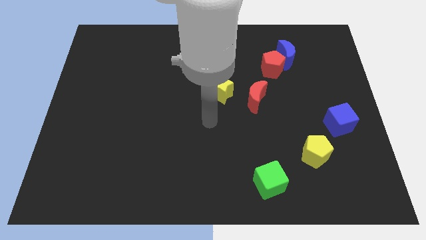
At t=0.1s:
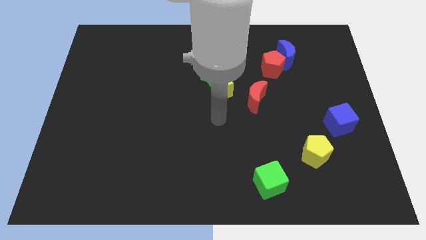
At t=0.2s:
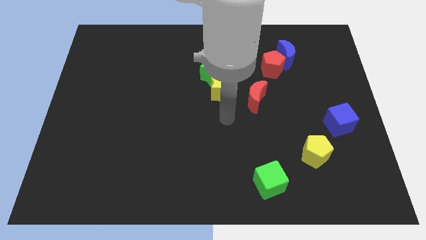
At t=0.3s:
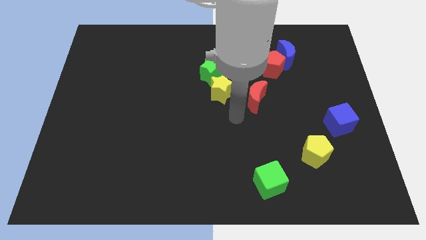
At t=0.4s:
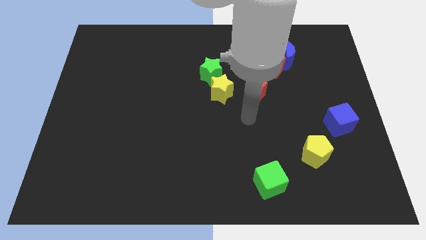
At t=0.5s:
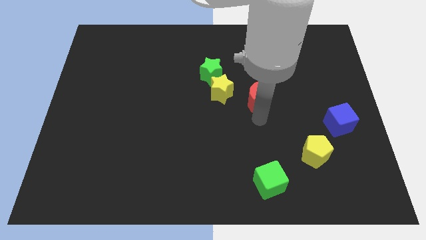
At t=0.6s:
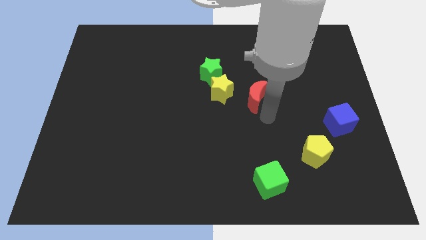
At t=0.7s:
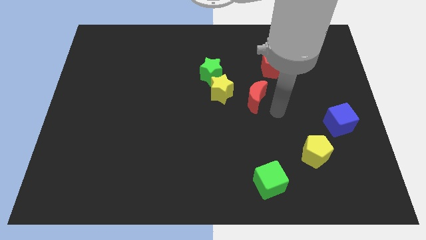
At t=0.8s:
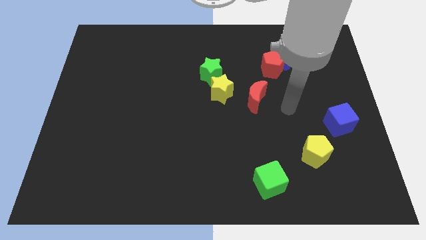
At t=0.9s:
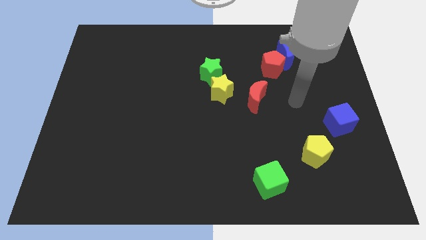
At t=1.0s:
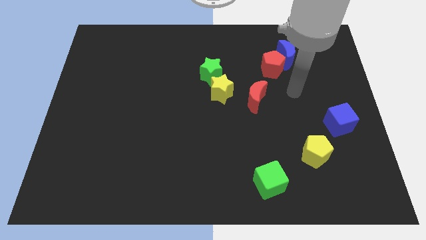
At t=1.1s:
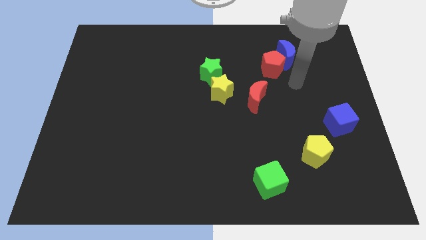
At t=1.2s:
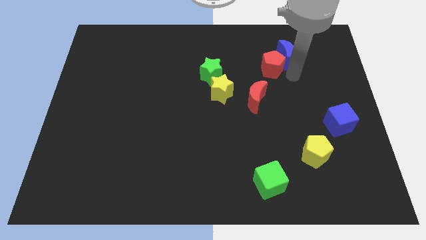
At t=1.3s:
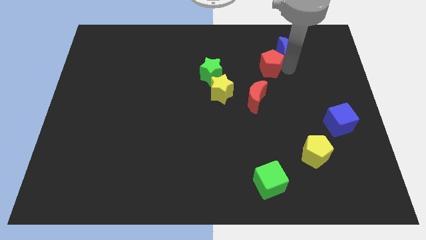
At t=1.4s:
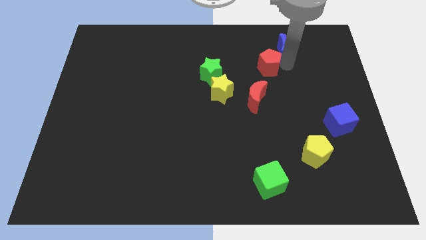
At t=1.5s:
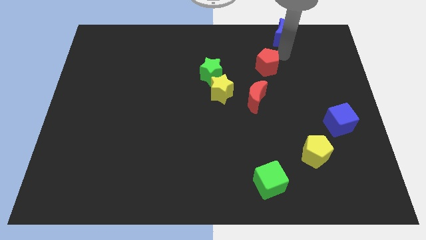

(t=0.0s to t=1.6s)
move the red pentagon away from the blue moon

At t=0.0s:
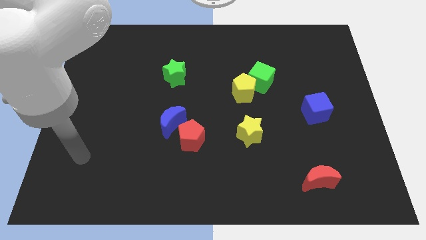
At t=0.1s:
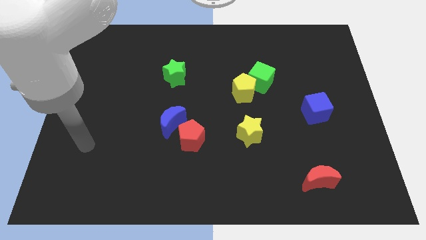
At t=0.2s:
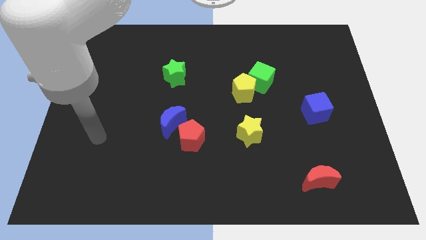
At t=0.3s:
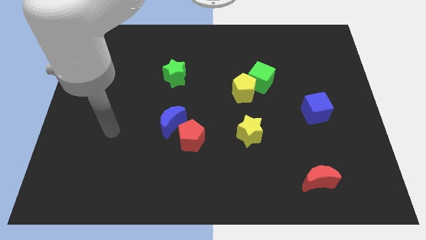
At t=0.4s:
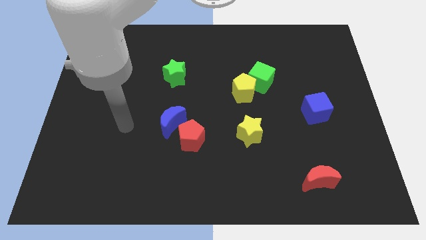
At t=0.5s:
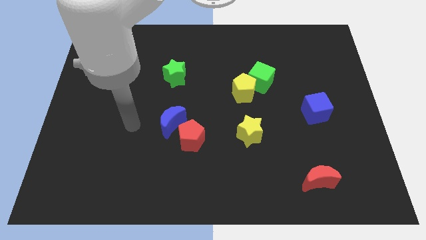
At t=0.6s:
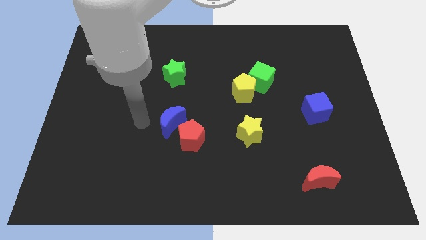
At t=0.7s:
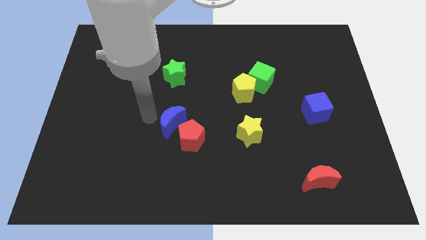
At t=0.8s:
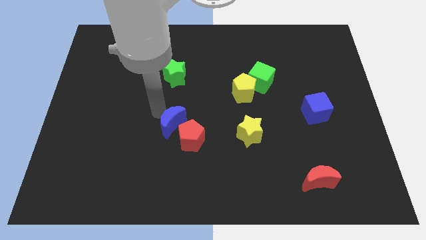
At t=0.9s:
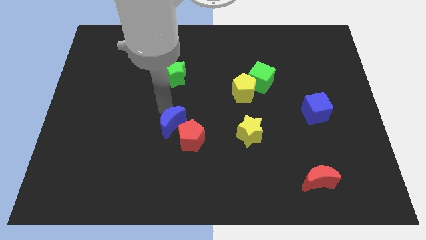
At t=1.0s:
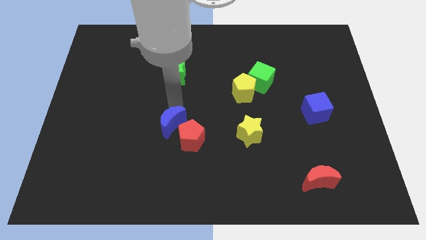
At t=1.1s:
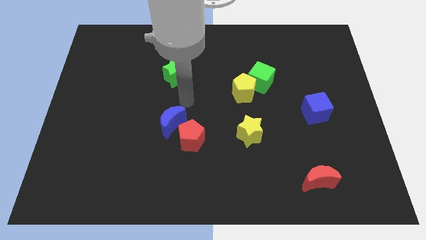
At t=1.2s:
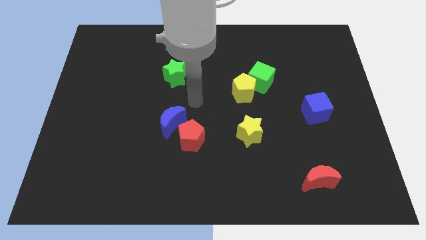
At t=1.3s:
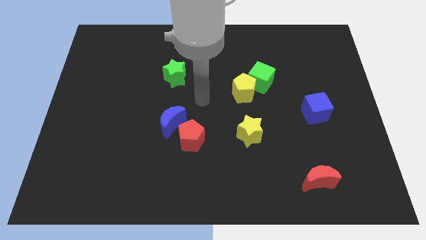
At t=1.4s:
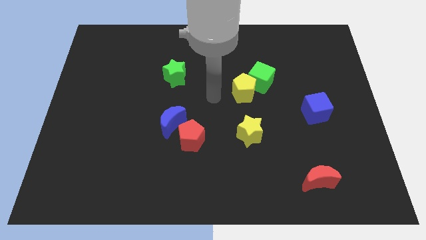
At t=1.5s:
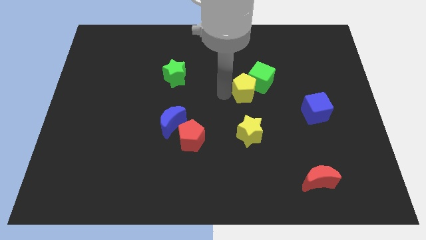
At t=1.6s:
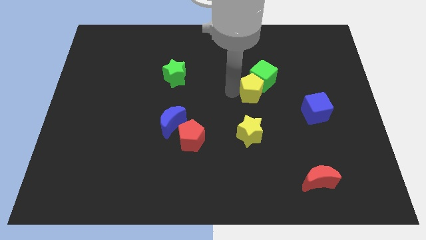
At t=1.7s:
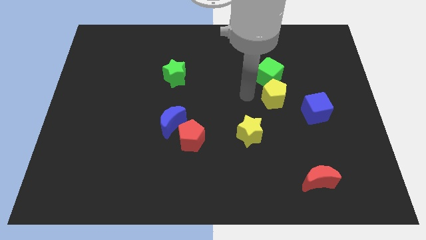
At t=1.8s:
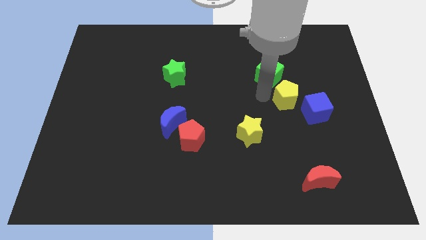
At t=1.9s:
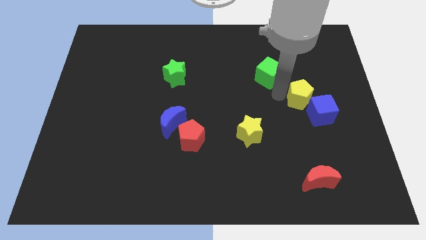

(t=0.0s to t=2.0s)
move the green cube away from the yellow pentagon

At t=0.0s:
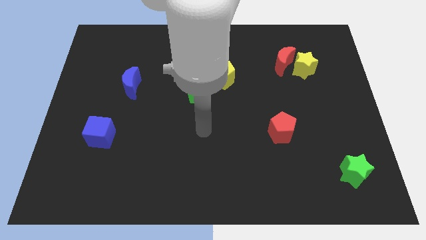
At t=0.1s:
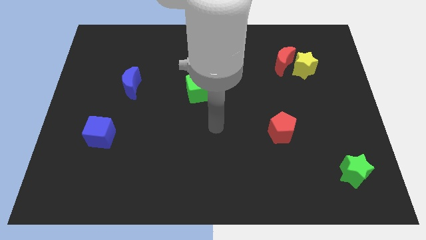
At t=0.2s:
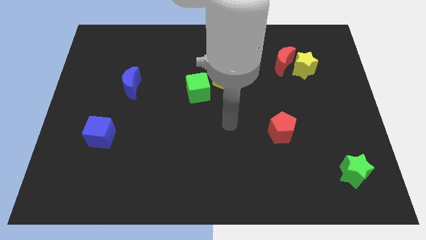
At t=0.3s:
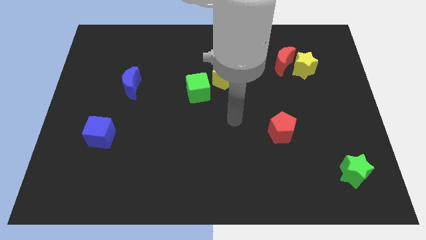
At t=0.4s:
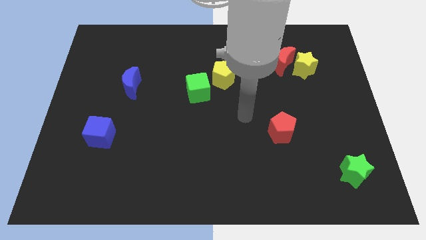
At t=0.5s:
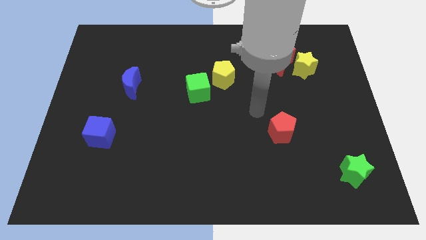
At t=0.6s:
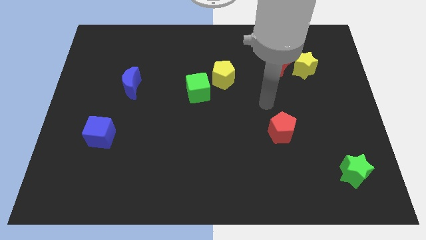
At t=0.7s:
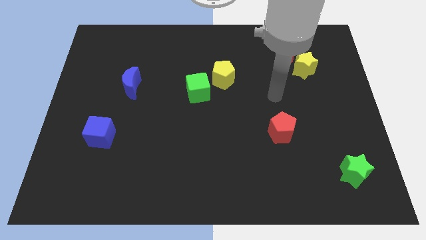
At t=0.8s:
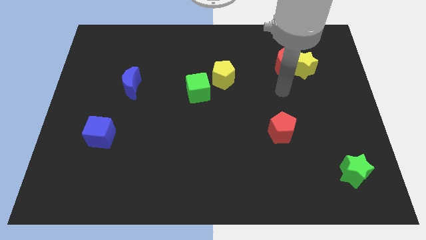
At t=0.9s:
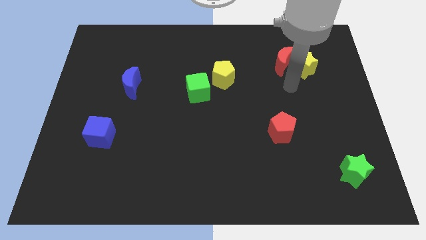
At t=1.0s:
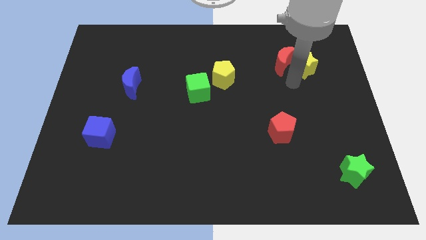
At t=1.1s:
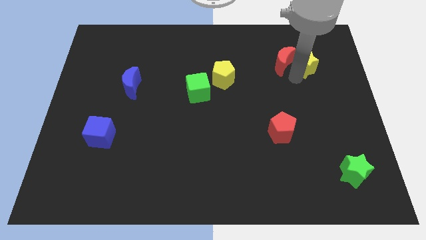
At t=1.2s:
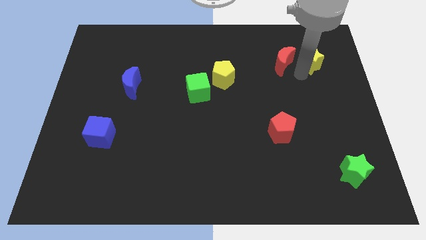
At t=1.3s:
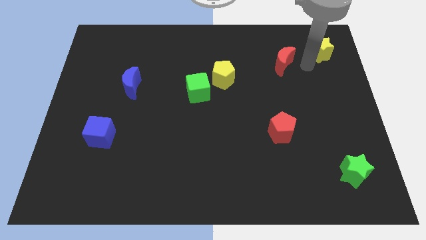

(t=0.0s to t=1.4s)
move the red moon away from the yellow star

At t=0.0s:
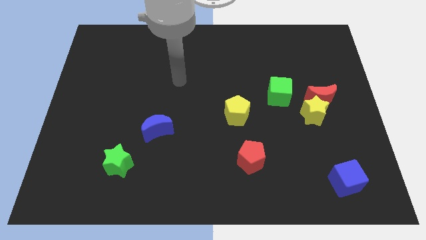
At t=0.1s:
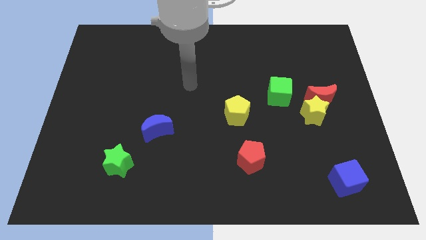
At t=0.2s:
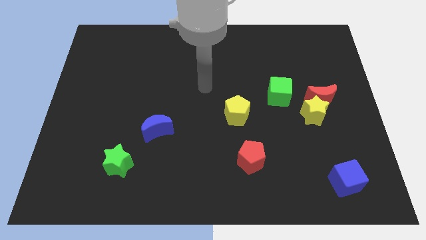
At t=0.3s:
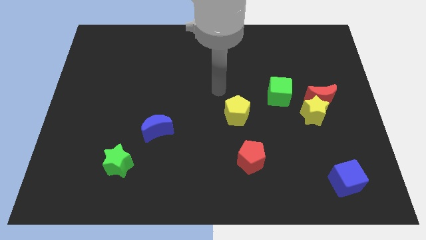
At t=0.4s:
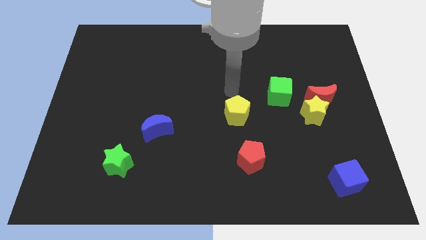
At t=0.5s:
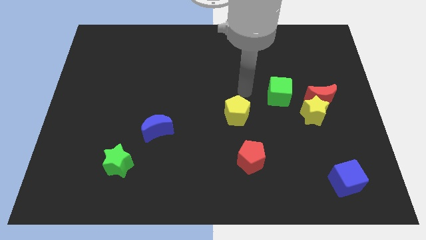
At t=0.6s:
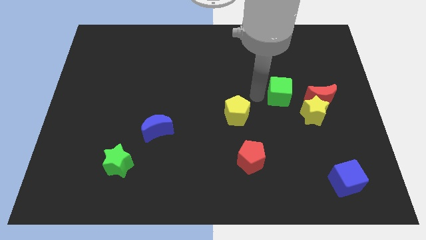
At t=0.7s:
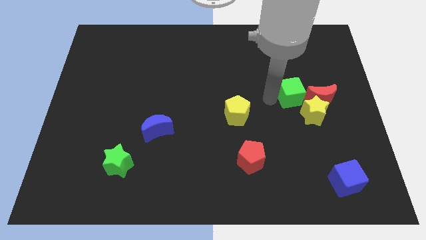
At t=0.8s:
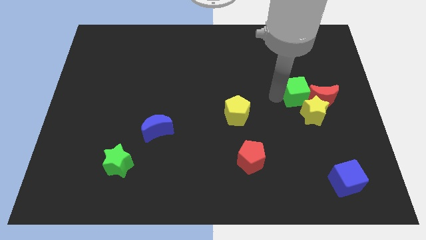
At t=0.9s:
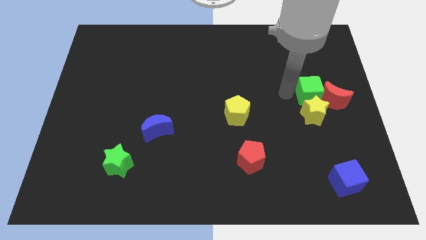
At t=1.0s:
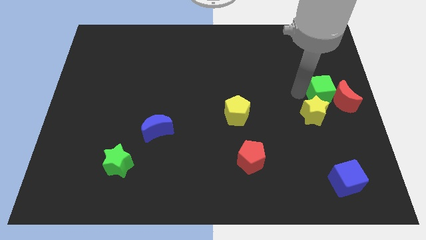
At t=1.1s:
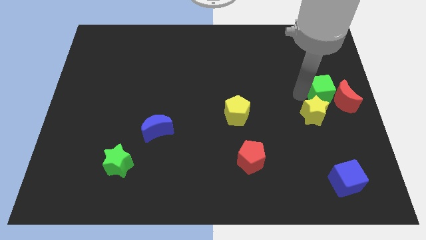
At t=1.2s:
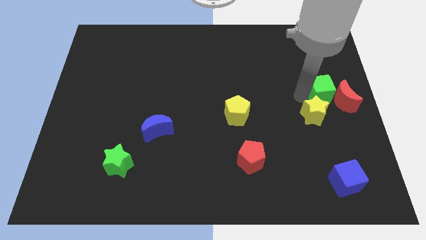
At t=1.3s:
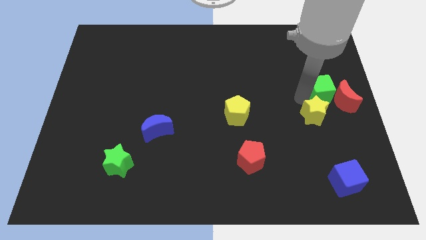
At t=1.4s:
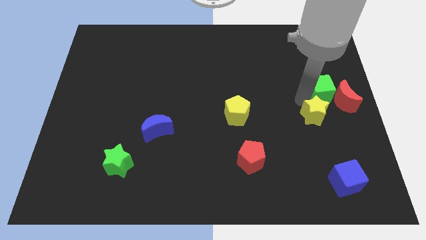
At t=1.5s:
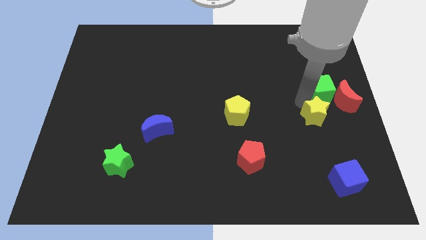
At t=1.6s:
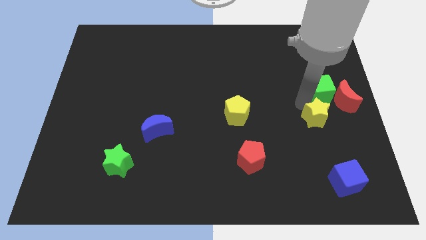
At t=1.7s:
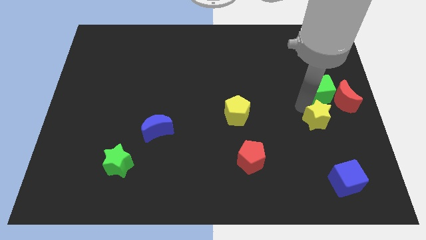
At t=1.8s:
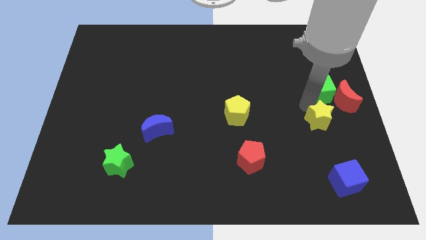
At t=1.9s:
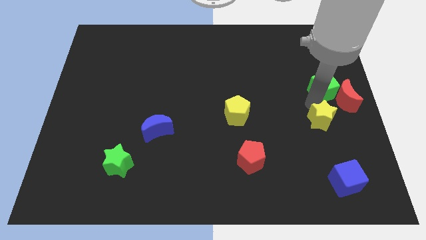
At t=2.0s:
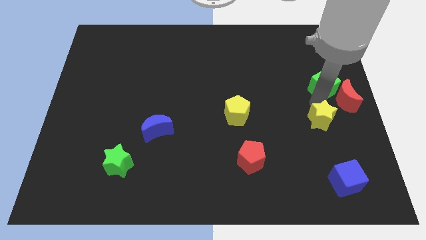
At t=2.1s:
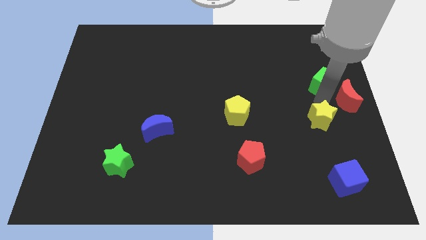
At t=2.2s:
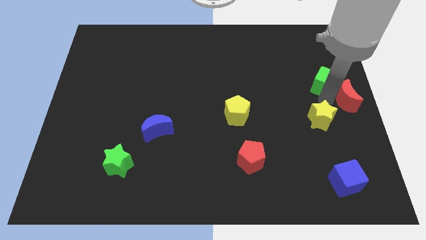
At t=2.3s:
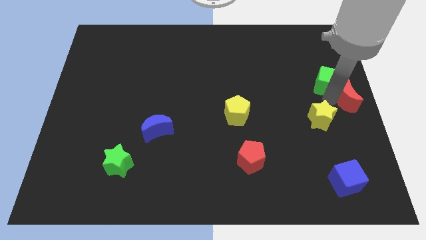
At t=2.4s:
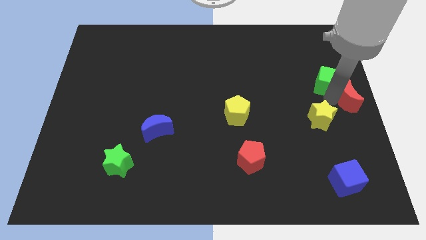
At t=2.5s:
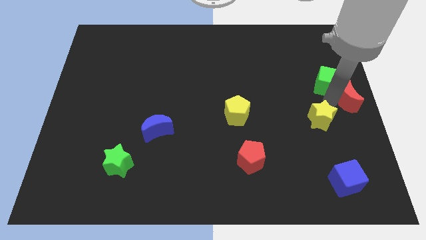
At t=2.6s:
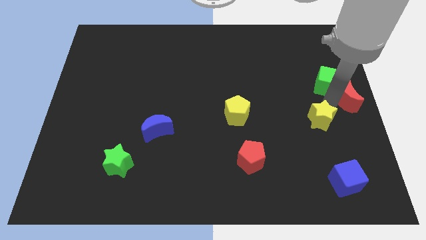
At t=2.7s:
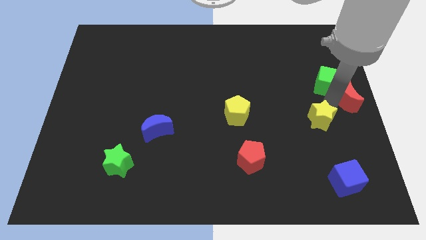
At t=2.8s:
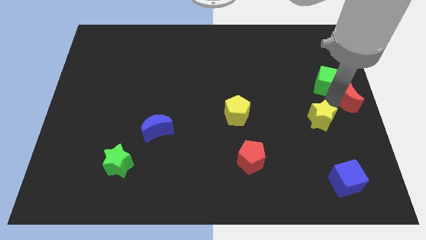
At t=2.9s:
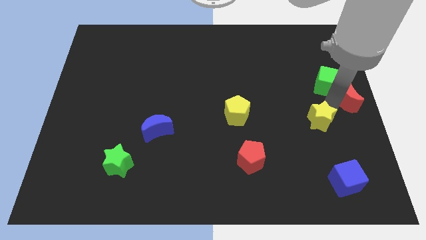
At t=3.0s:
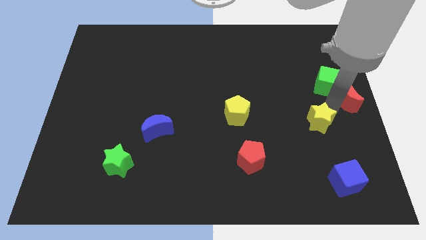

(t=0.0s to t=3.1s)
move the yellow star away from the red moon and green cube

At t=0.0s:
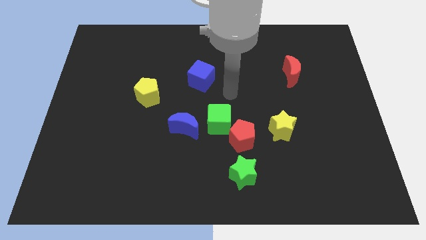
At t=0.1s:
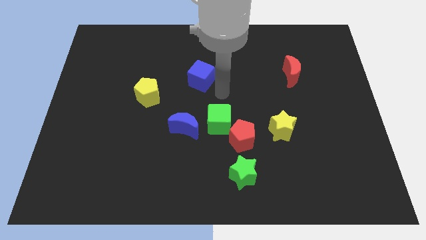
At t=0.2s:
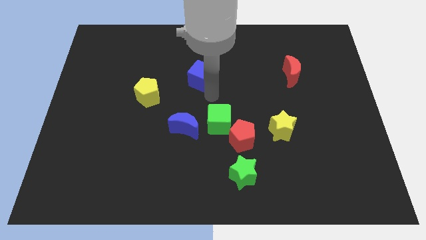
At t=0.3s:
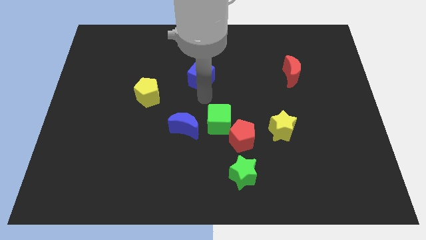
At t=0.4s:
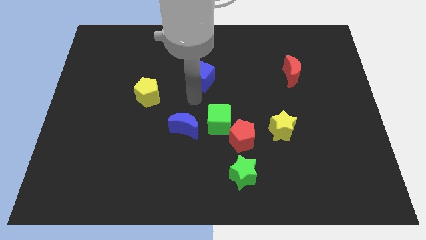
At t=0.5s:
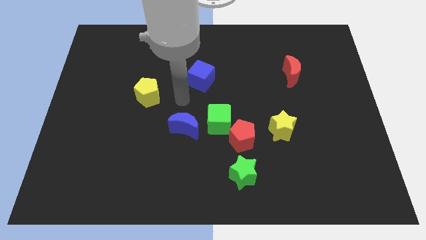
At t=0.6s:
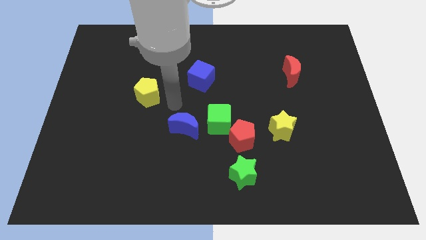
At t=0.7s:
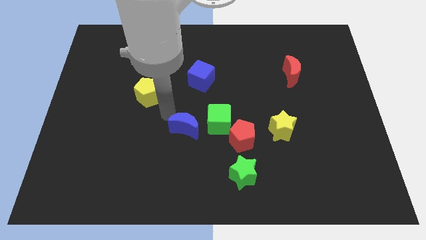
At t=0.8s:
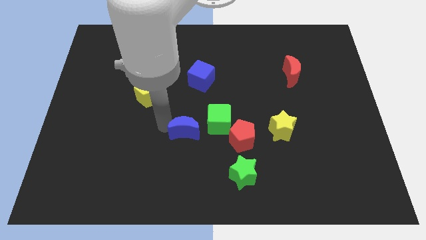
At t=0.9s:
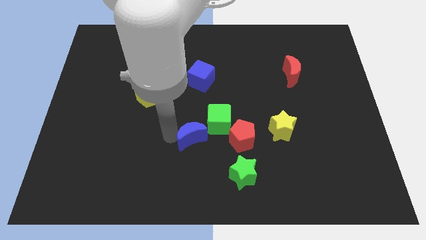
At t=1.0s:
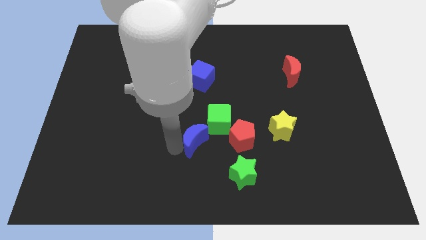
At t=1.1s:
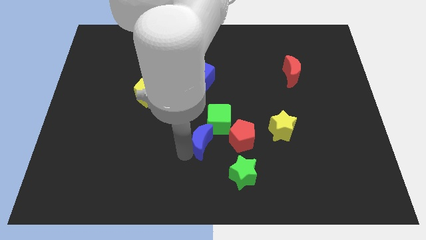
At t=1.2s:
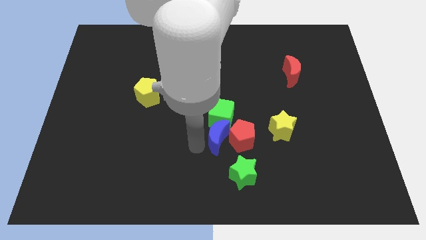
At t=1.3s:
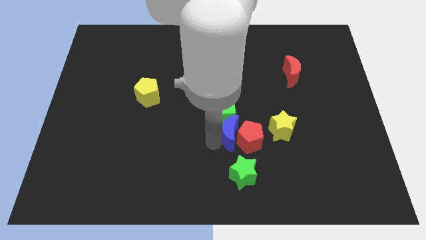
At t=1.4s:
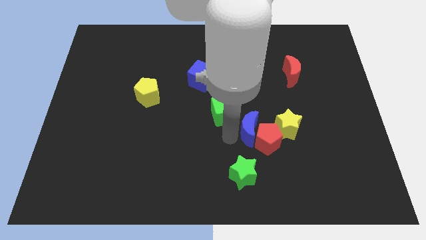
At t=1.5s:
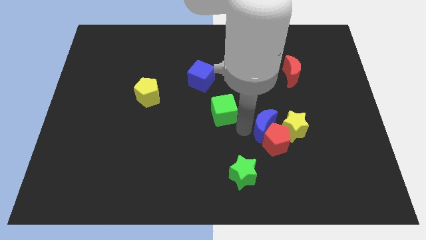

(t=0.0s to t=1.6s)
separate the green cube from the red pentagon and blue moon
